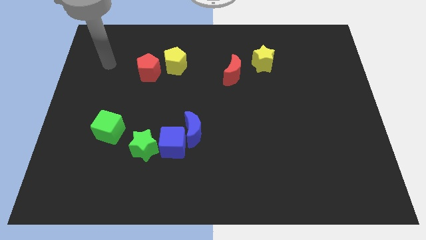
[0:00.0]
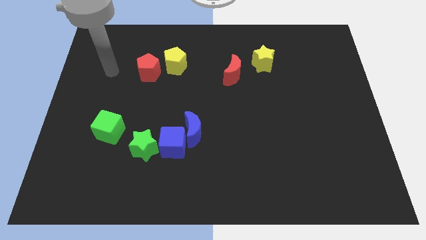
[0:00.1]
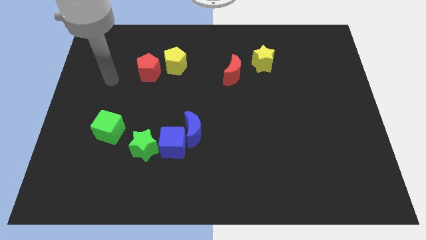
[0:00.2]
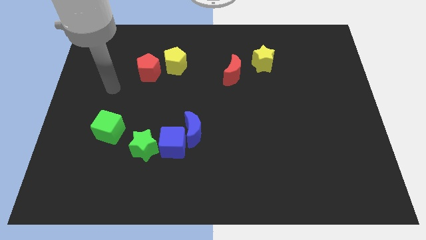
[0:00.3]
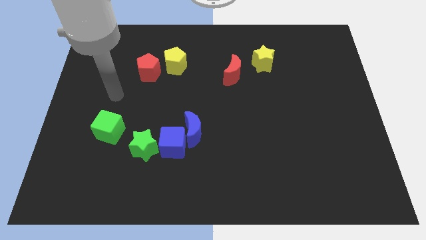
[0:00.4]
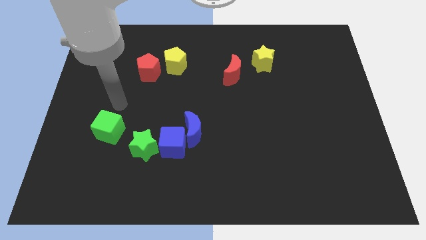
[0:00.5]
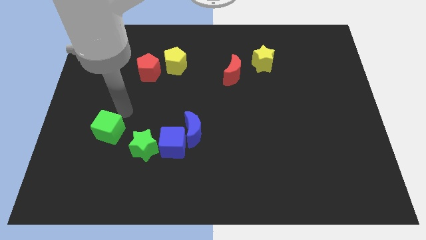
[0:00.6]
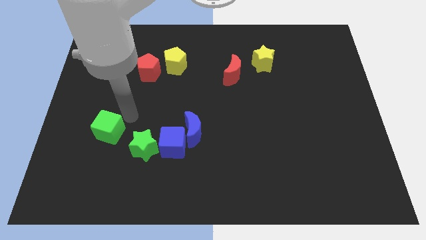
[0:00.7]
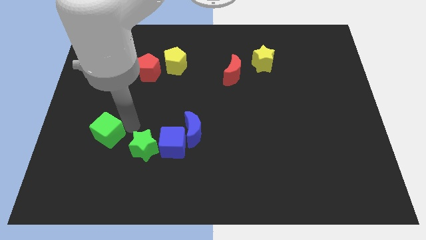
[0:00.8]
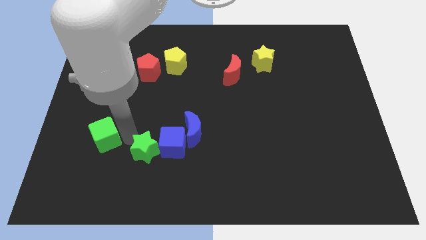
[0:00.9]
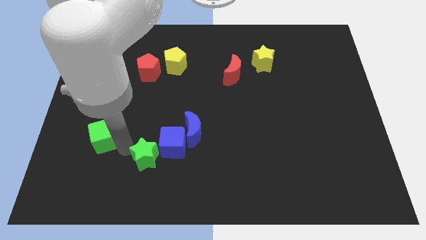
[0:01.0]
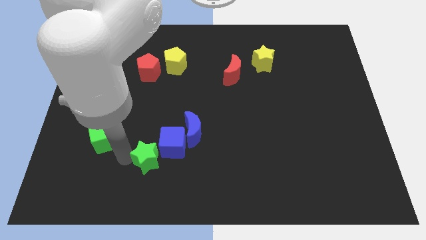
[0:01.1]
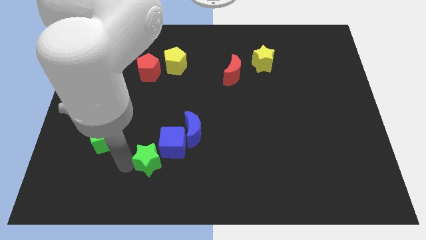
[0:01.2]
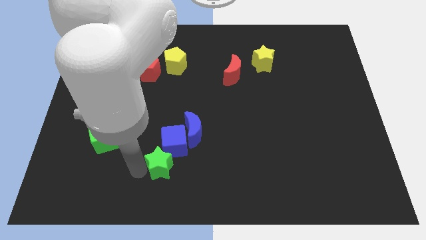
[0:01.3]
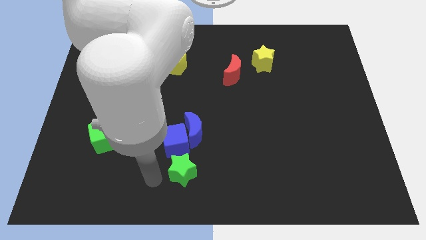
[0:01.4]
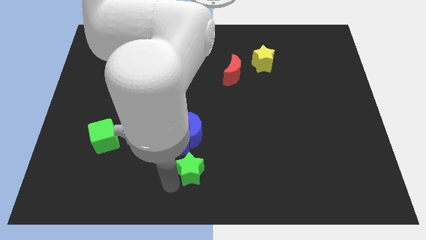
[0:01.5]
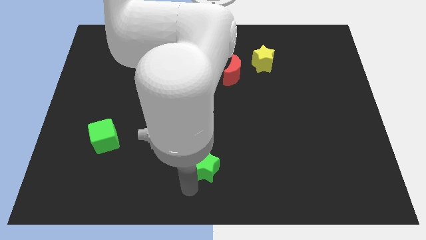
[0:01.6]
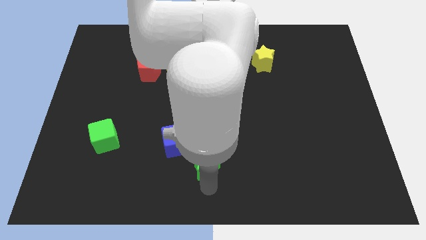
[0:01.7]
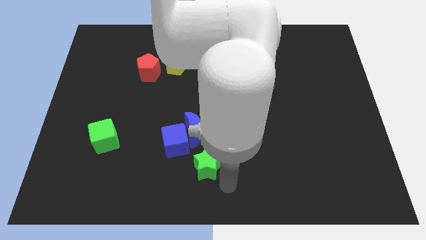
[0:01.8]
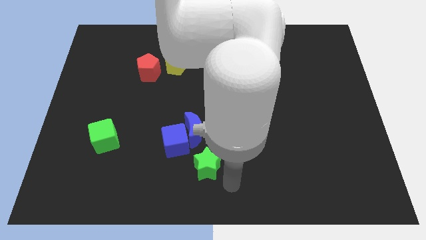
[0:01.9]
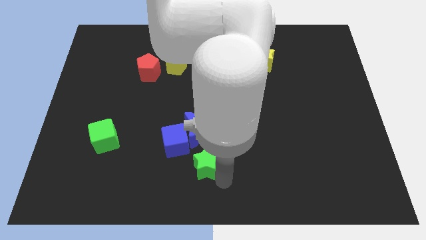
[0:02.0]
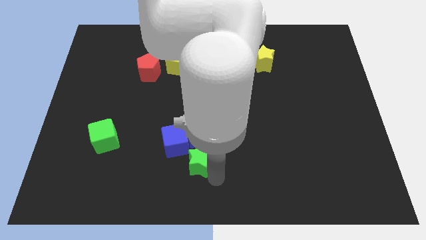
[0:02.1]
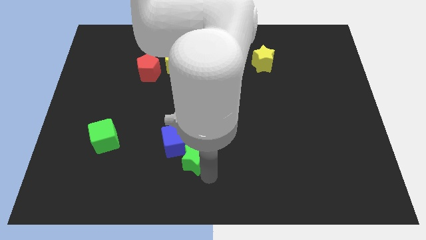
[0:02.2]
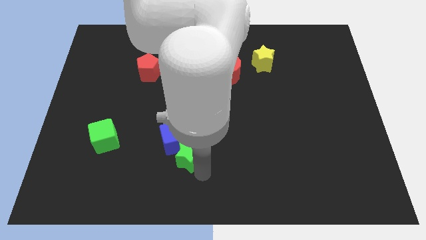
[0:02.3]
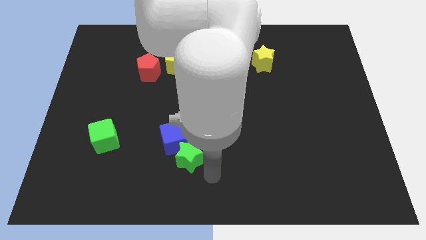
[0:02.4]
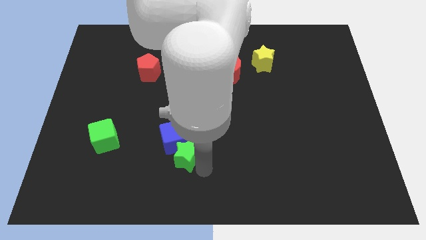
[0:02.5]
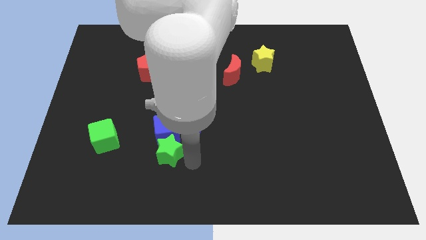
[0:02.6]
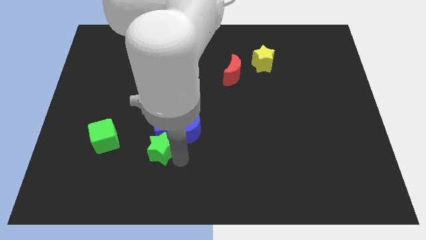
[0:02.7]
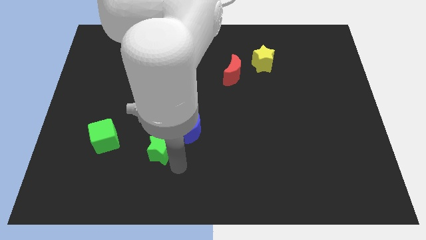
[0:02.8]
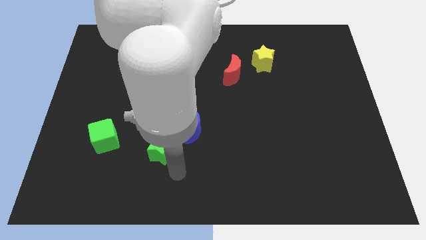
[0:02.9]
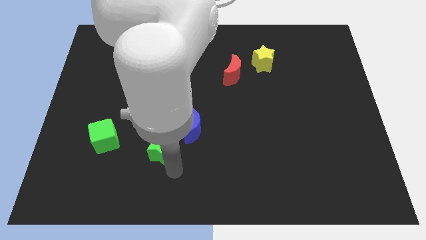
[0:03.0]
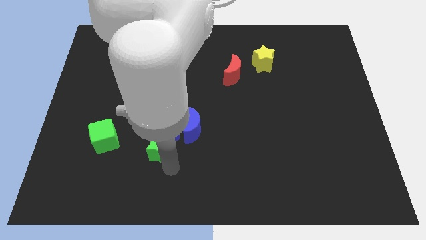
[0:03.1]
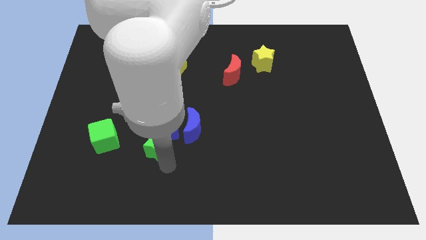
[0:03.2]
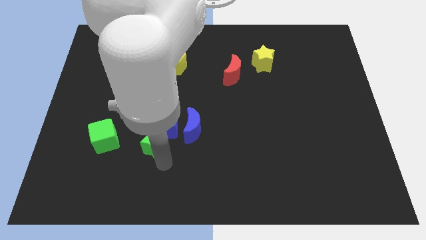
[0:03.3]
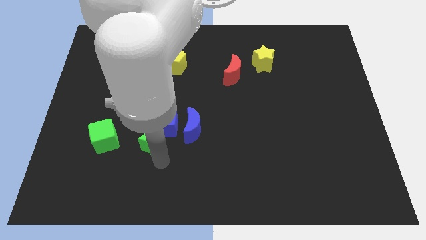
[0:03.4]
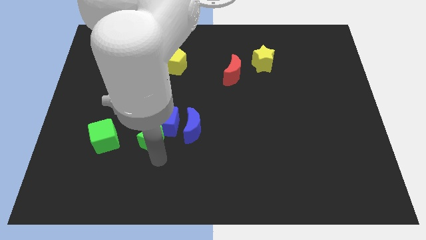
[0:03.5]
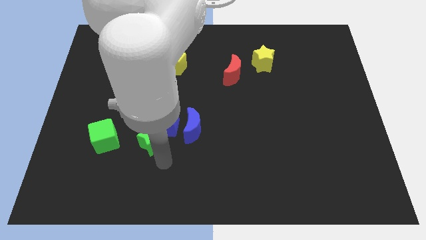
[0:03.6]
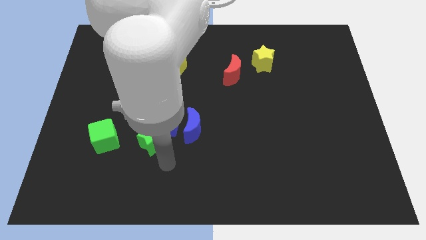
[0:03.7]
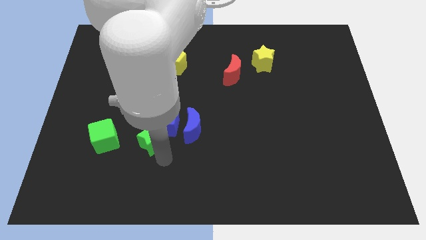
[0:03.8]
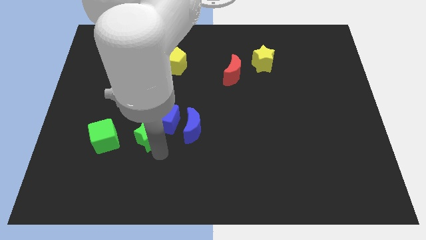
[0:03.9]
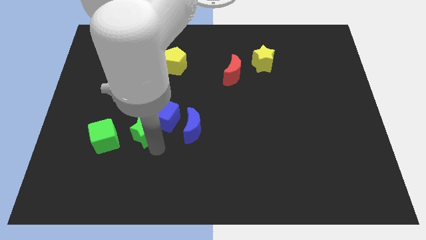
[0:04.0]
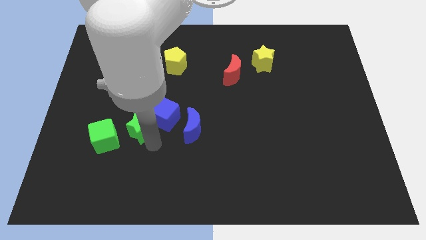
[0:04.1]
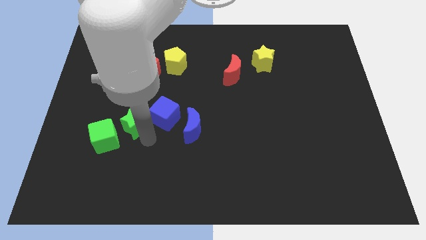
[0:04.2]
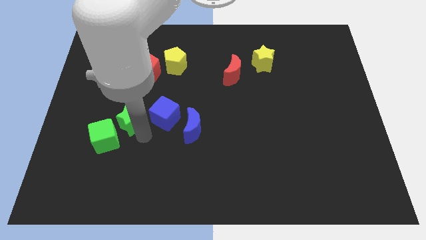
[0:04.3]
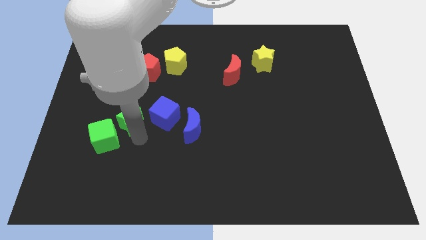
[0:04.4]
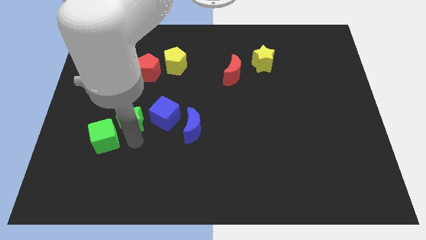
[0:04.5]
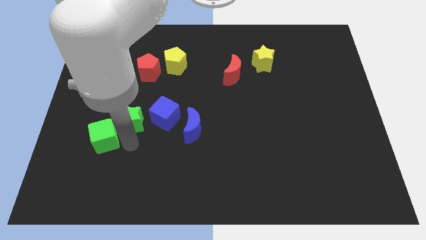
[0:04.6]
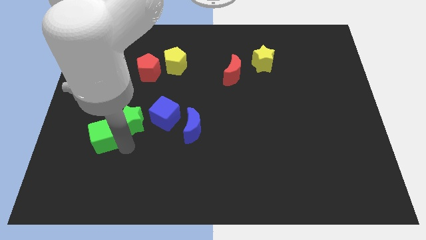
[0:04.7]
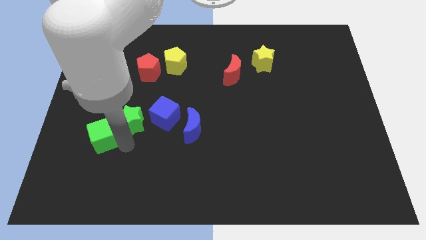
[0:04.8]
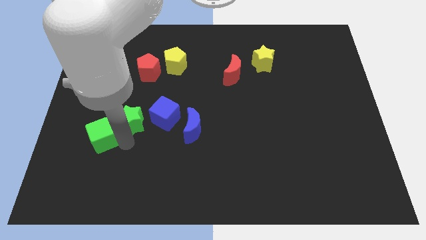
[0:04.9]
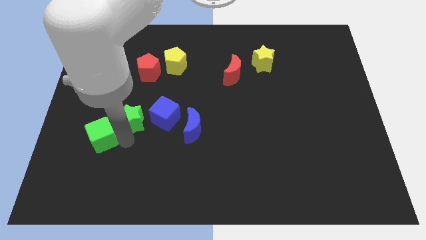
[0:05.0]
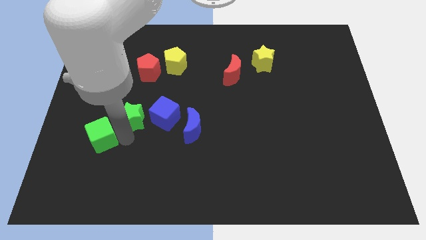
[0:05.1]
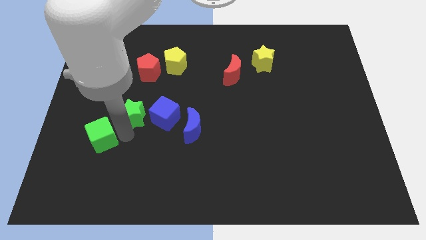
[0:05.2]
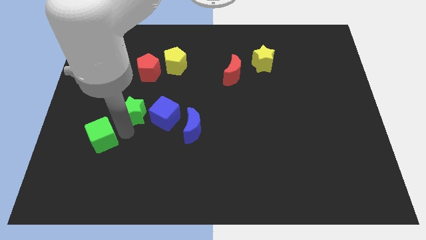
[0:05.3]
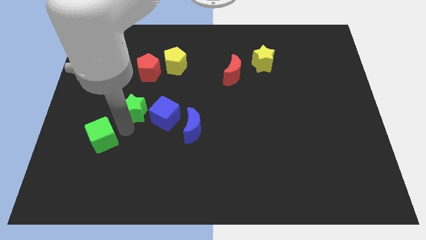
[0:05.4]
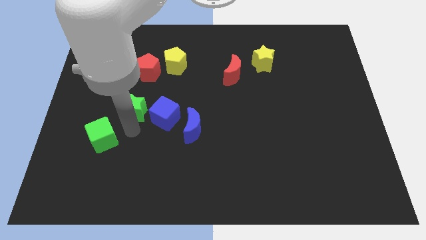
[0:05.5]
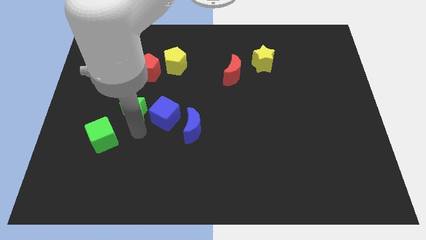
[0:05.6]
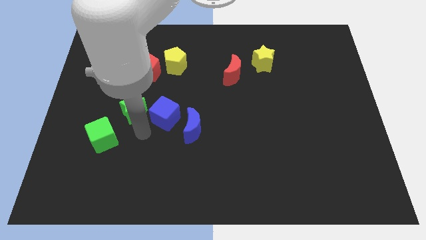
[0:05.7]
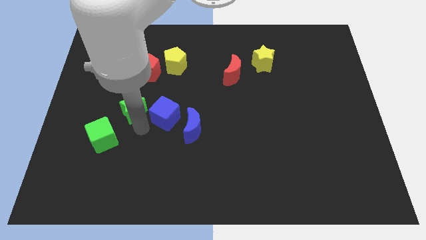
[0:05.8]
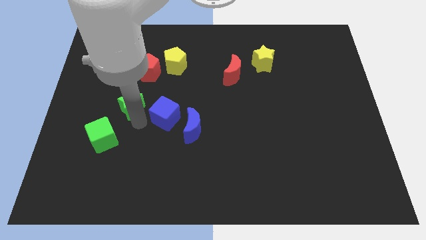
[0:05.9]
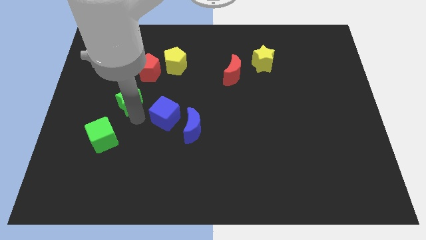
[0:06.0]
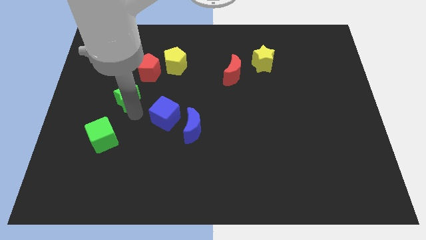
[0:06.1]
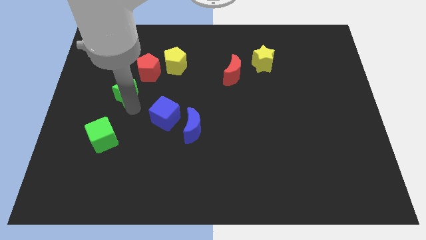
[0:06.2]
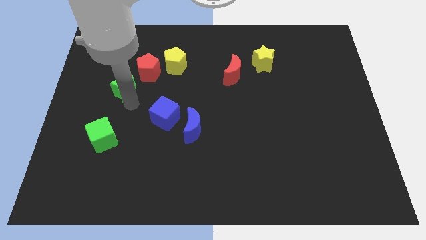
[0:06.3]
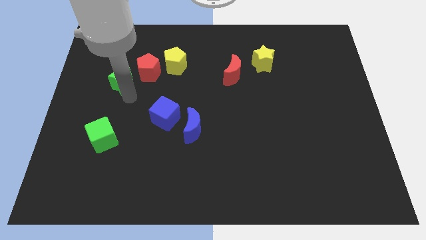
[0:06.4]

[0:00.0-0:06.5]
slide the green star to the left of the red pentagon

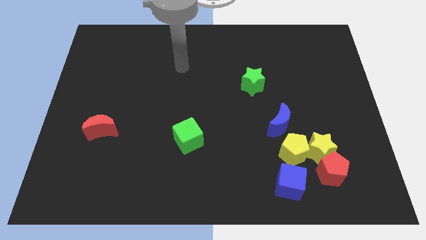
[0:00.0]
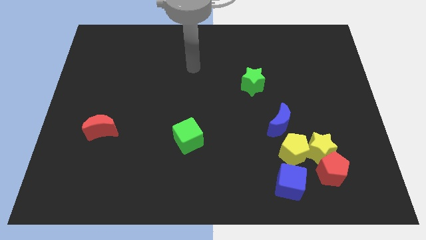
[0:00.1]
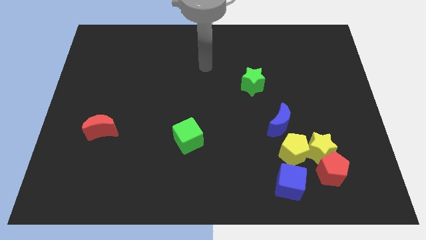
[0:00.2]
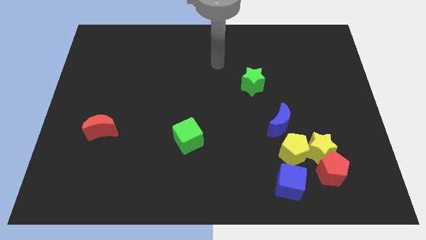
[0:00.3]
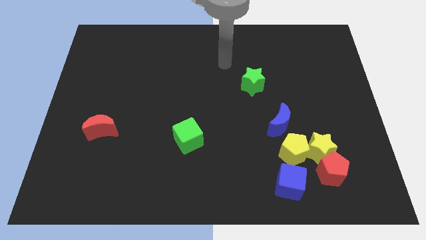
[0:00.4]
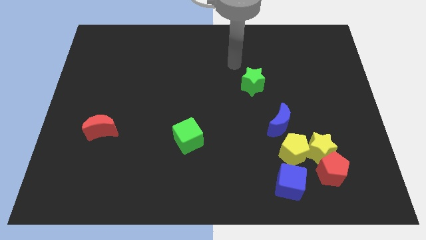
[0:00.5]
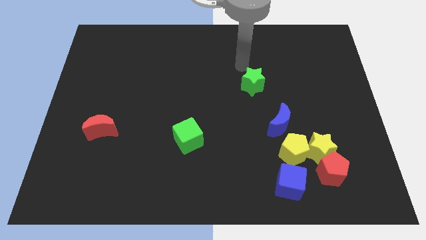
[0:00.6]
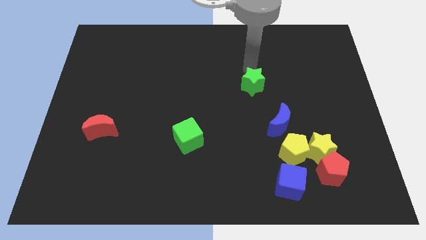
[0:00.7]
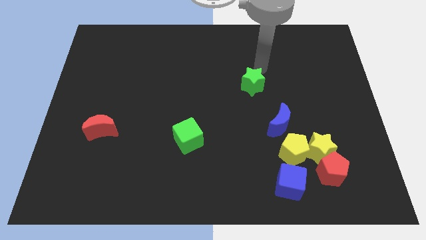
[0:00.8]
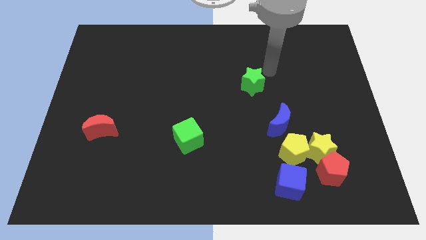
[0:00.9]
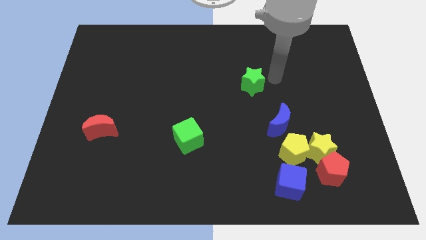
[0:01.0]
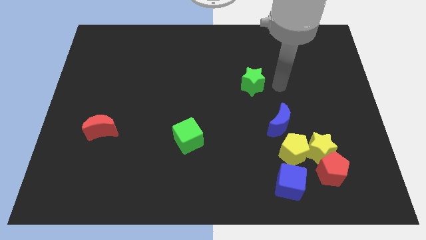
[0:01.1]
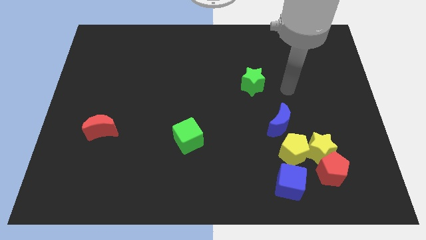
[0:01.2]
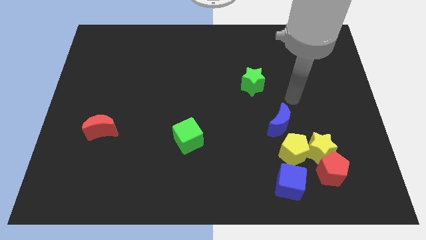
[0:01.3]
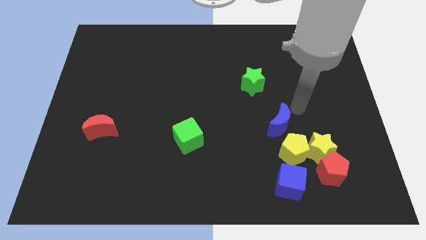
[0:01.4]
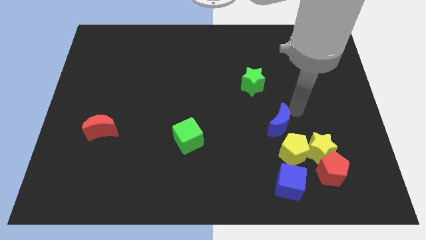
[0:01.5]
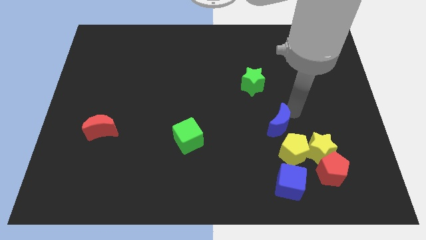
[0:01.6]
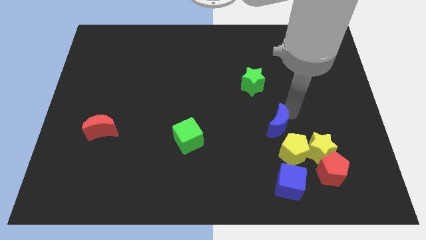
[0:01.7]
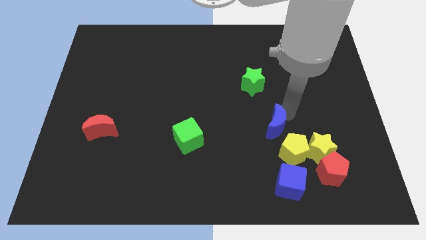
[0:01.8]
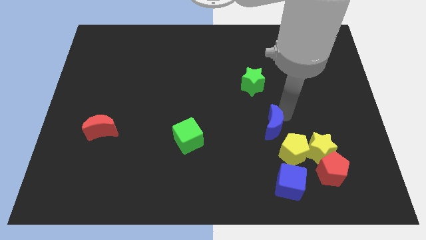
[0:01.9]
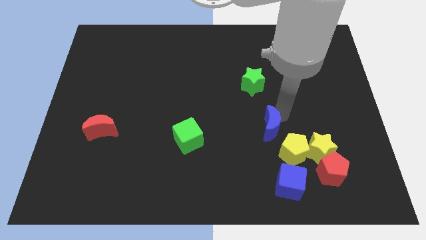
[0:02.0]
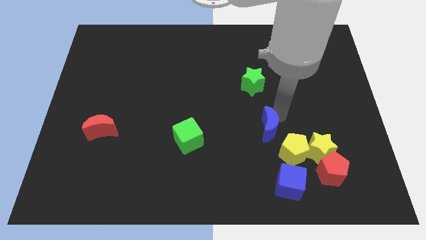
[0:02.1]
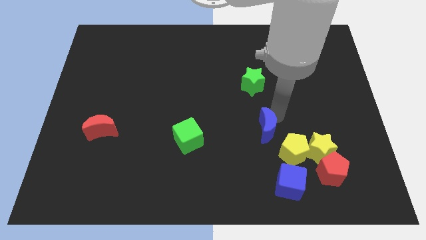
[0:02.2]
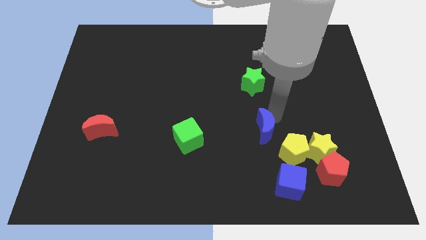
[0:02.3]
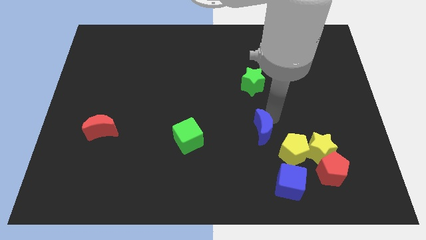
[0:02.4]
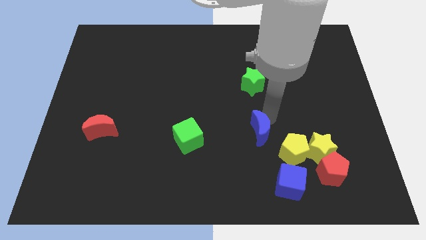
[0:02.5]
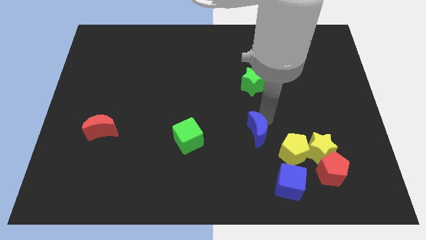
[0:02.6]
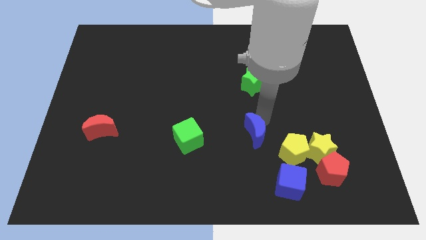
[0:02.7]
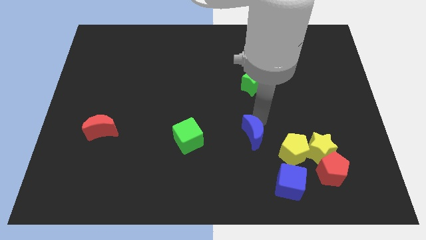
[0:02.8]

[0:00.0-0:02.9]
move the blue moon just left of the yellow pentagon
